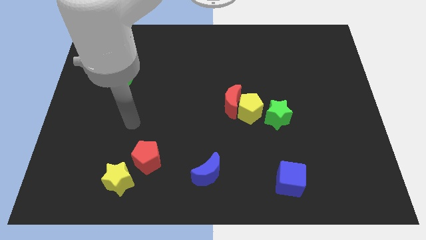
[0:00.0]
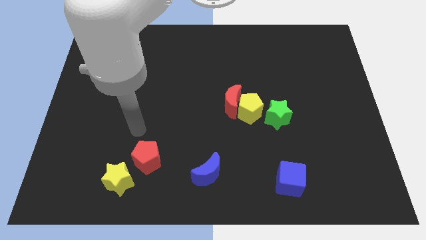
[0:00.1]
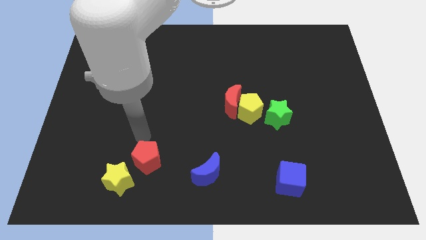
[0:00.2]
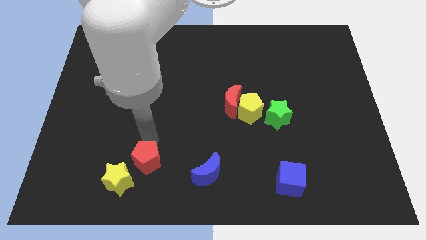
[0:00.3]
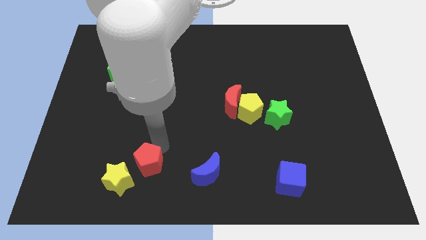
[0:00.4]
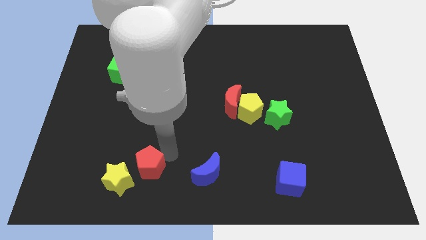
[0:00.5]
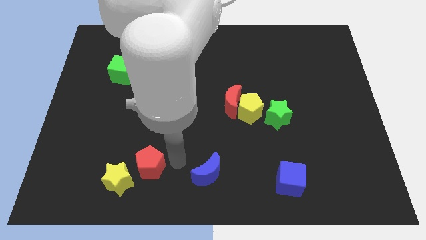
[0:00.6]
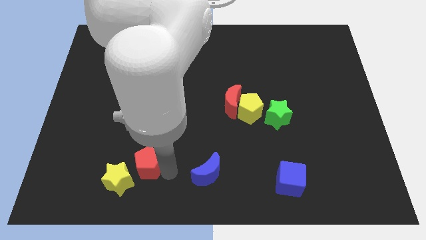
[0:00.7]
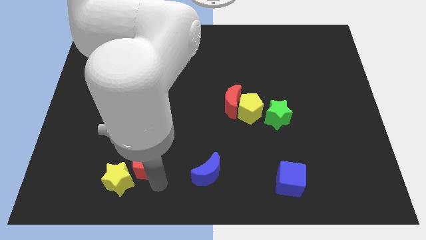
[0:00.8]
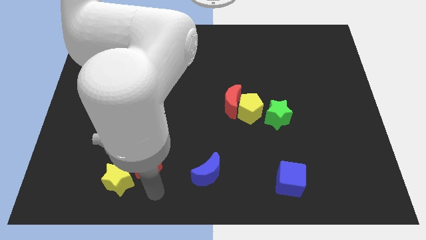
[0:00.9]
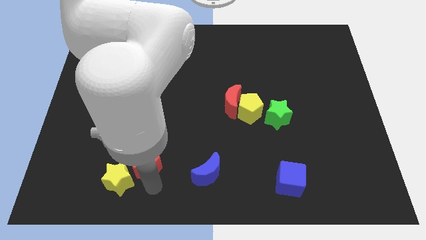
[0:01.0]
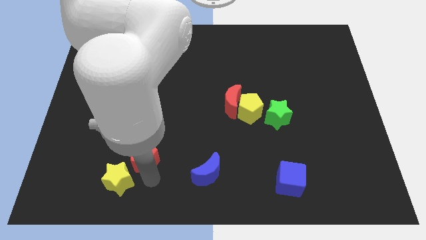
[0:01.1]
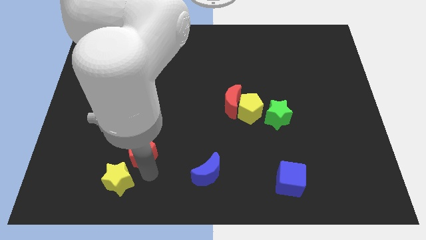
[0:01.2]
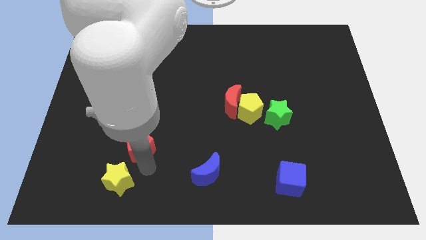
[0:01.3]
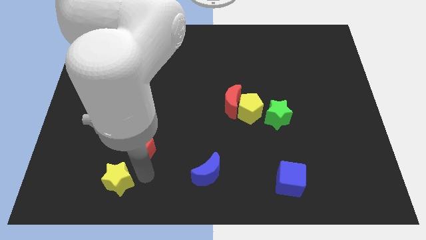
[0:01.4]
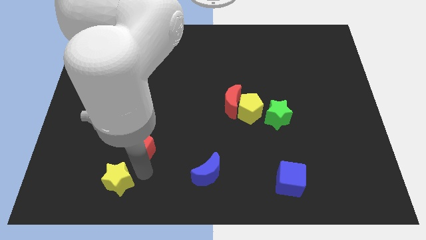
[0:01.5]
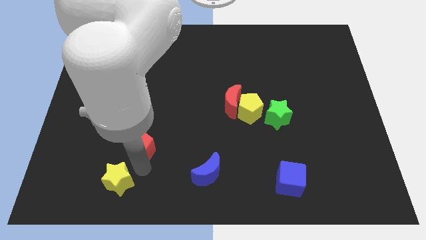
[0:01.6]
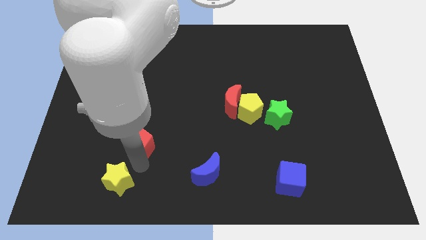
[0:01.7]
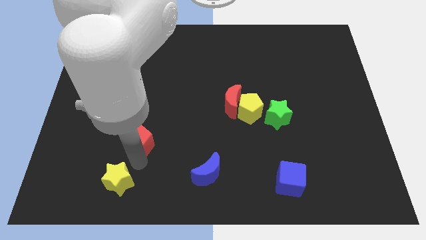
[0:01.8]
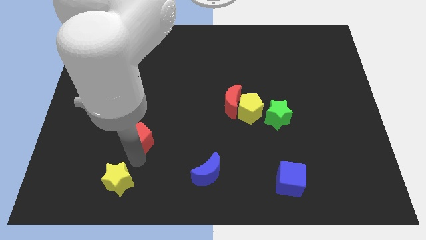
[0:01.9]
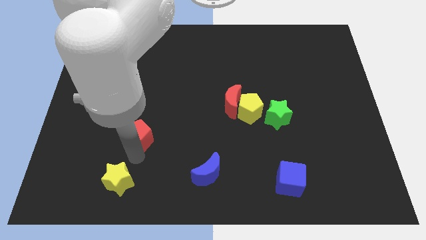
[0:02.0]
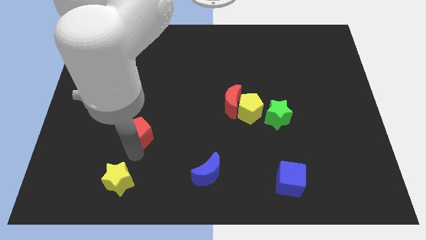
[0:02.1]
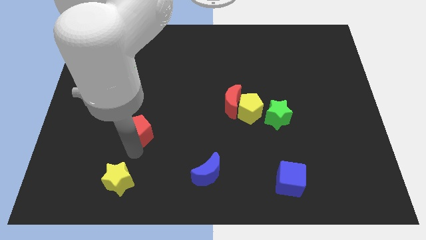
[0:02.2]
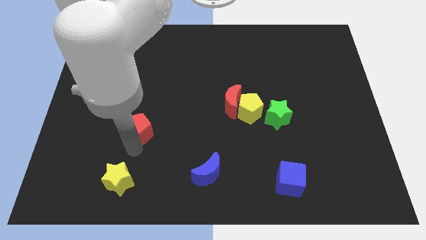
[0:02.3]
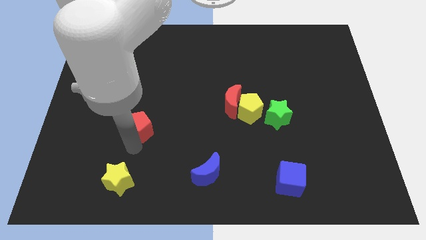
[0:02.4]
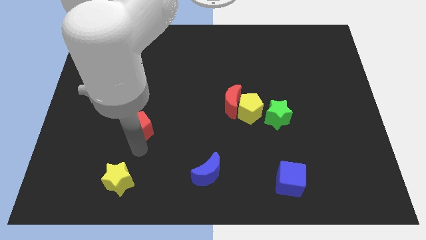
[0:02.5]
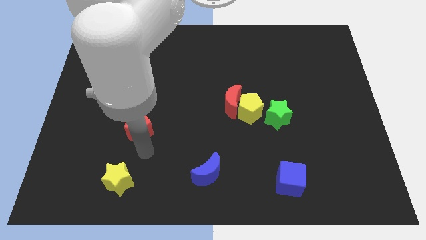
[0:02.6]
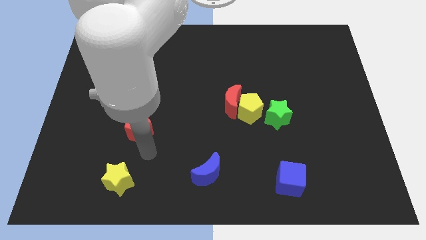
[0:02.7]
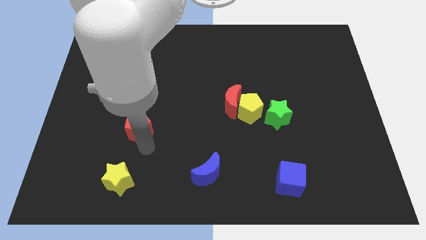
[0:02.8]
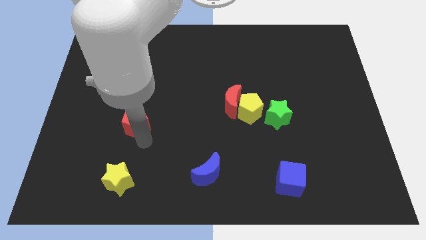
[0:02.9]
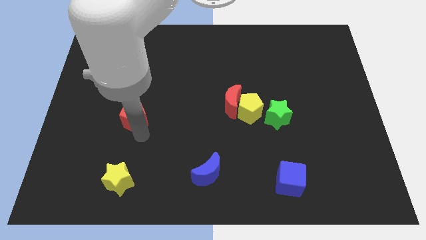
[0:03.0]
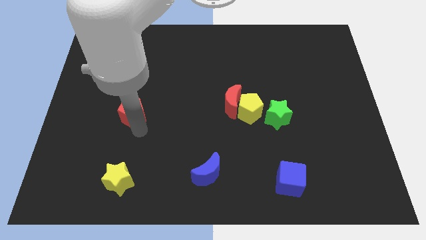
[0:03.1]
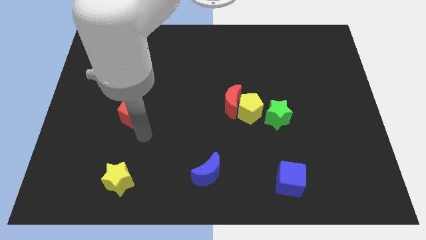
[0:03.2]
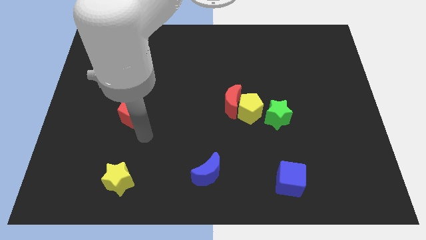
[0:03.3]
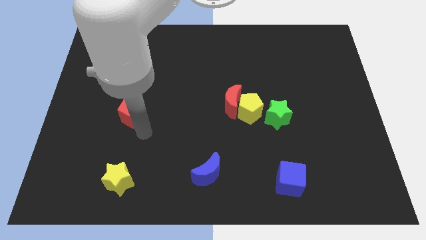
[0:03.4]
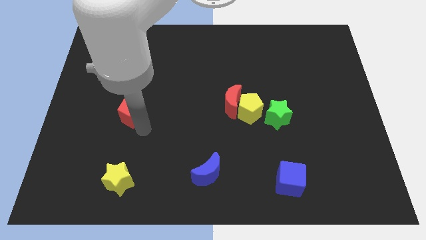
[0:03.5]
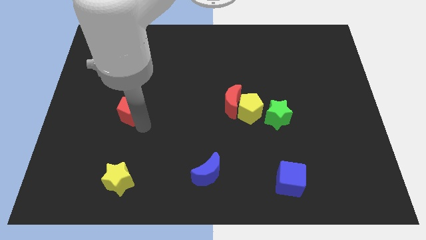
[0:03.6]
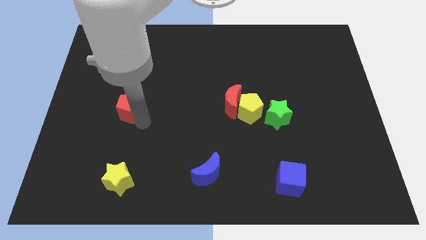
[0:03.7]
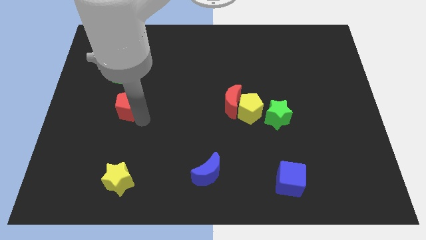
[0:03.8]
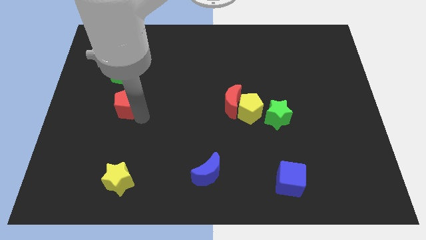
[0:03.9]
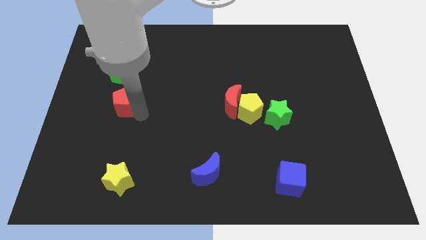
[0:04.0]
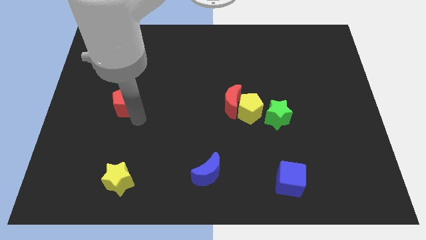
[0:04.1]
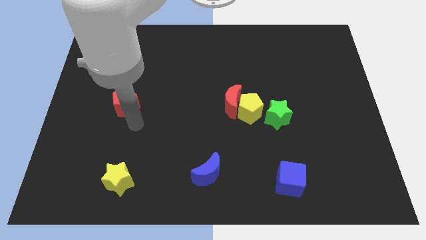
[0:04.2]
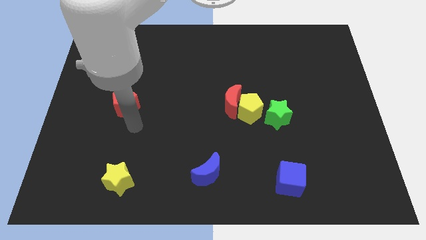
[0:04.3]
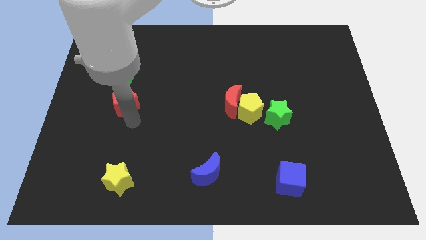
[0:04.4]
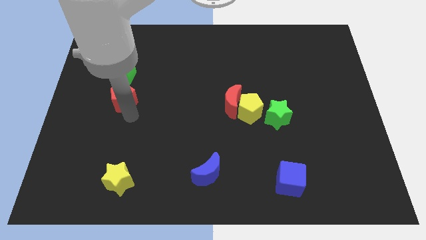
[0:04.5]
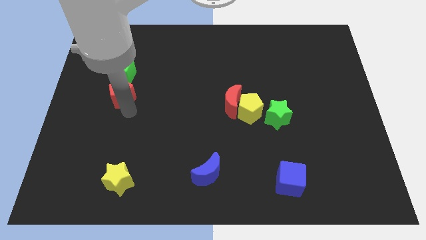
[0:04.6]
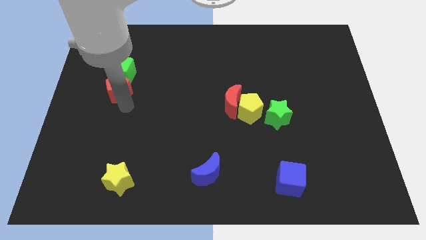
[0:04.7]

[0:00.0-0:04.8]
slide the red pentagon towards the green cube

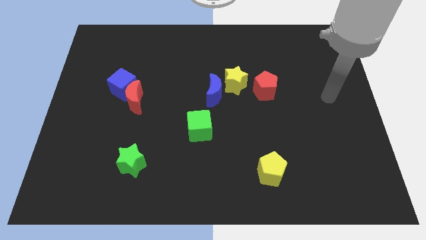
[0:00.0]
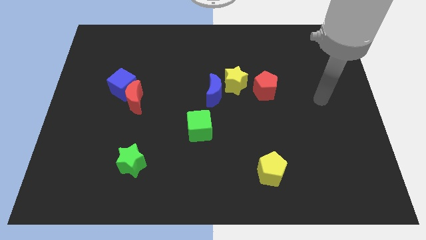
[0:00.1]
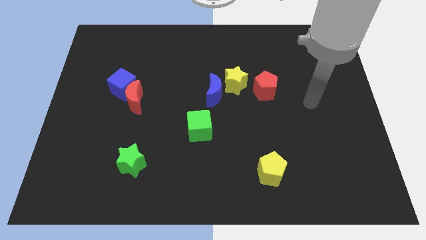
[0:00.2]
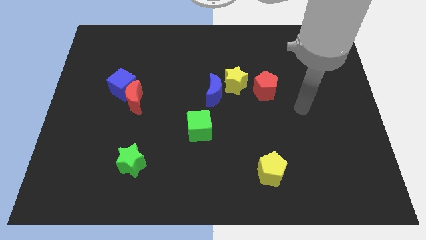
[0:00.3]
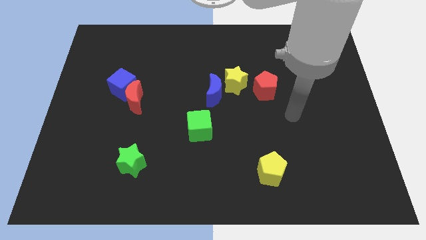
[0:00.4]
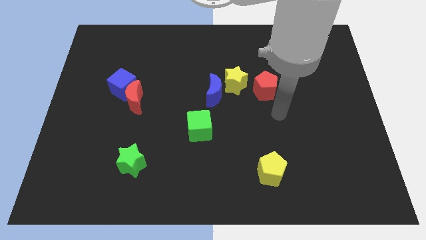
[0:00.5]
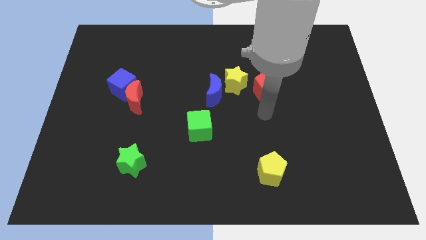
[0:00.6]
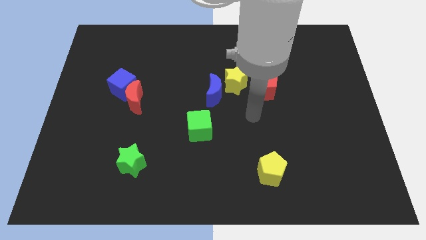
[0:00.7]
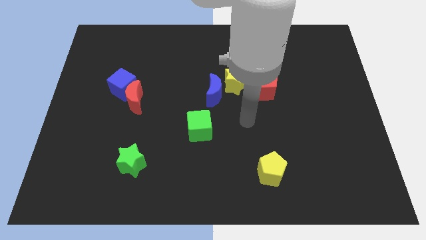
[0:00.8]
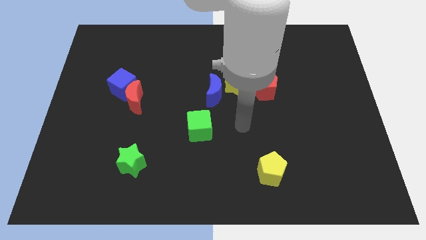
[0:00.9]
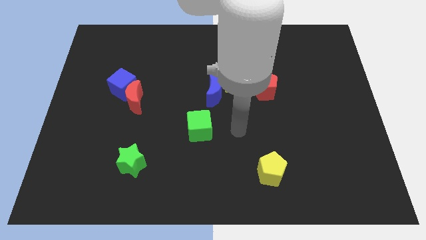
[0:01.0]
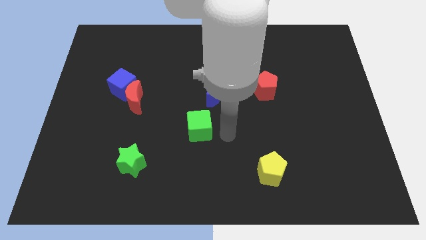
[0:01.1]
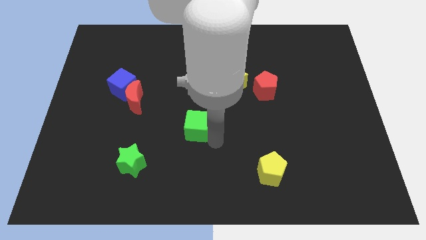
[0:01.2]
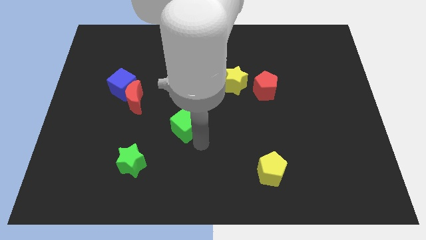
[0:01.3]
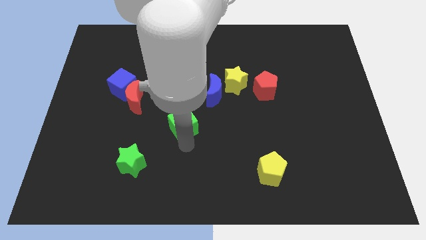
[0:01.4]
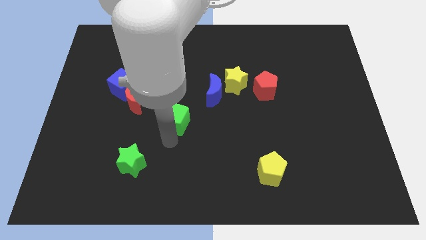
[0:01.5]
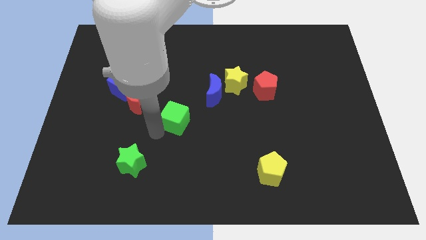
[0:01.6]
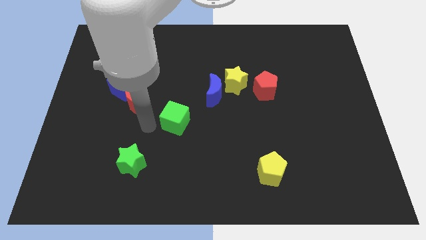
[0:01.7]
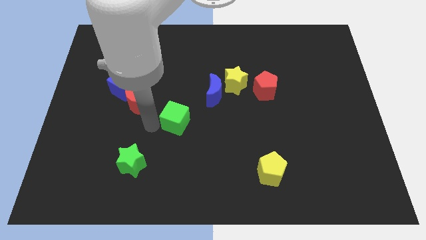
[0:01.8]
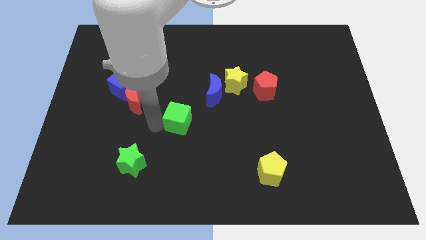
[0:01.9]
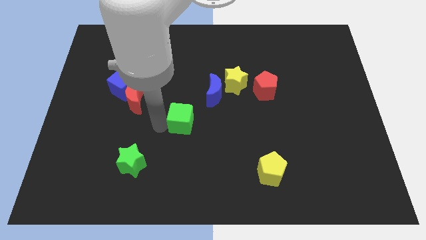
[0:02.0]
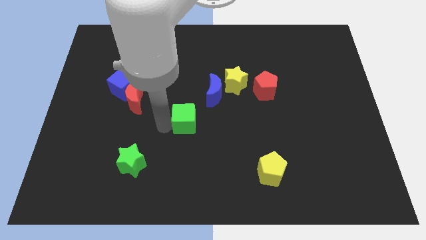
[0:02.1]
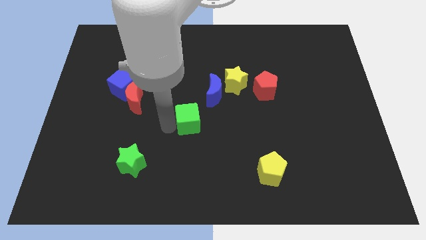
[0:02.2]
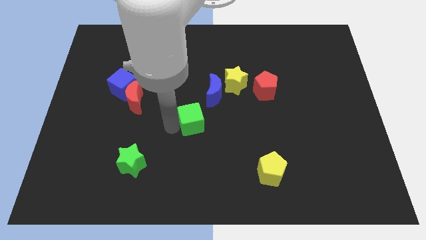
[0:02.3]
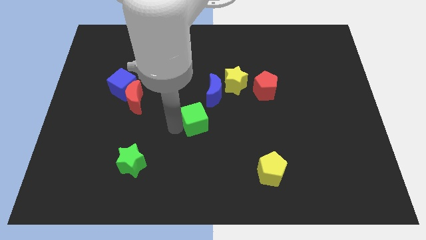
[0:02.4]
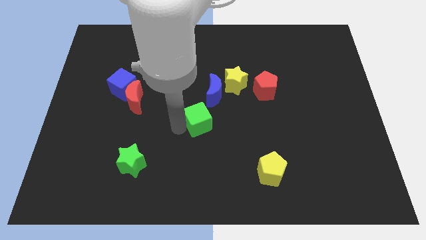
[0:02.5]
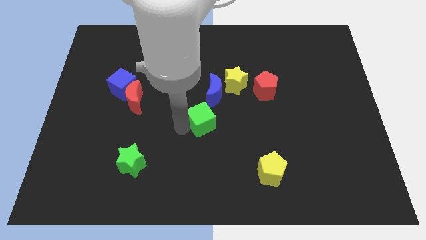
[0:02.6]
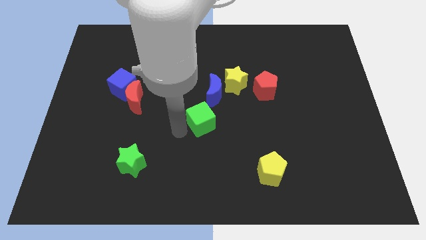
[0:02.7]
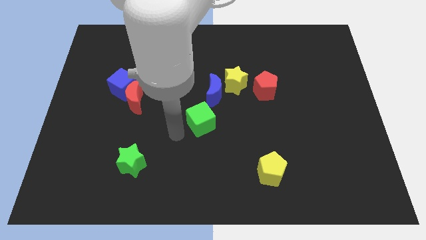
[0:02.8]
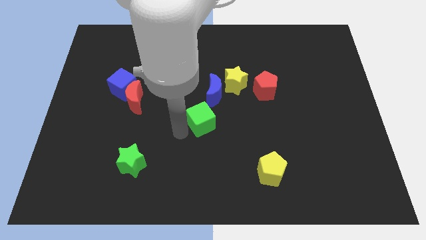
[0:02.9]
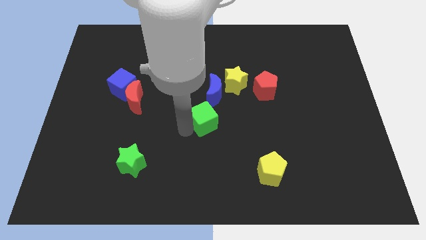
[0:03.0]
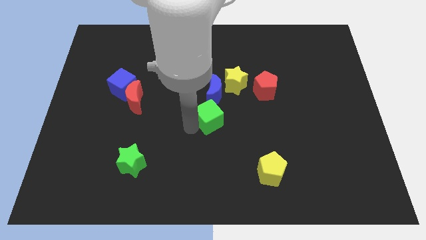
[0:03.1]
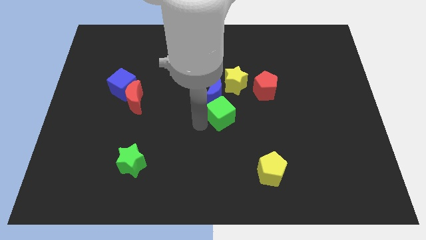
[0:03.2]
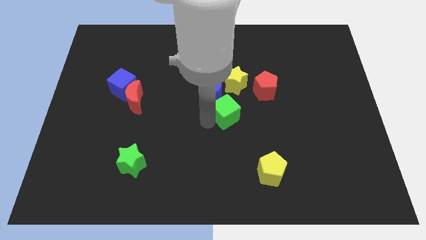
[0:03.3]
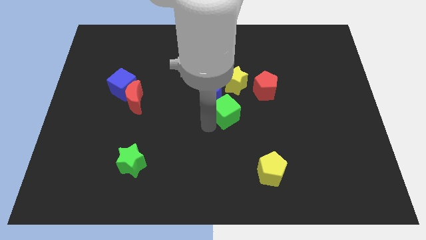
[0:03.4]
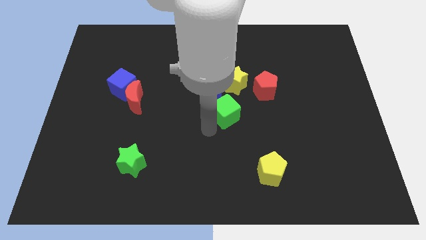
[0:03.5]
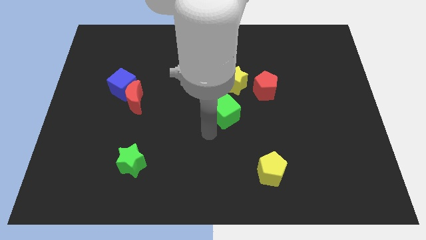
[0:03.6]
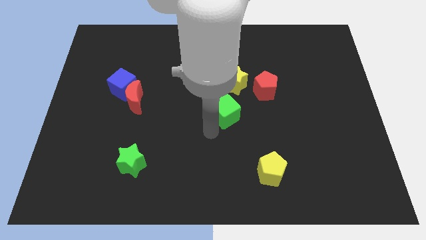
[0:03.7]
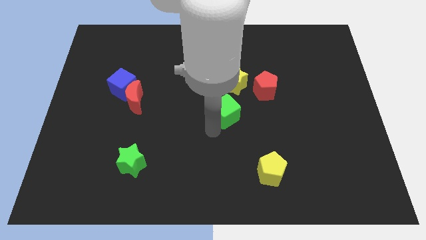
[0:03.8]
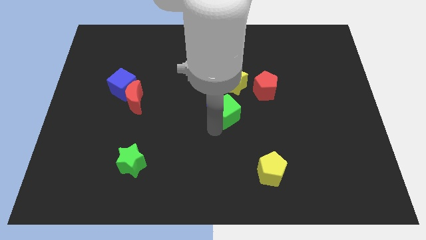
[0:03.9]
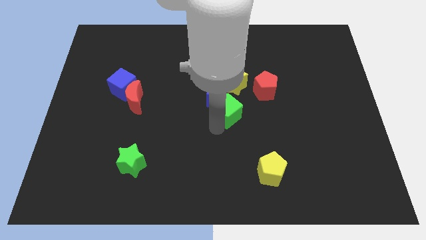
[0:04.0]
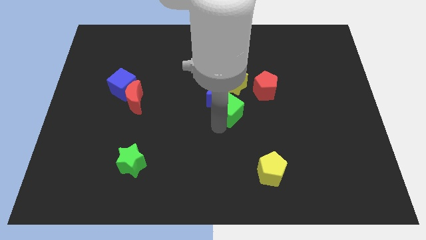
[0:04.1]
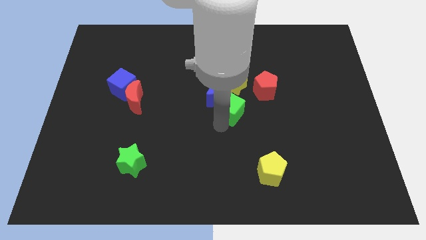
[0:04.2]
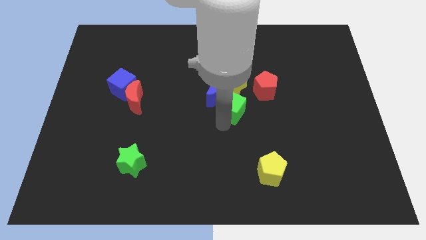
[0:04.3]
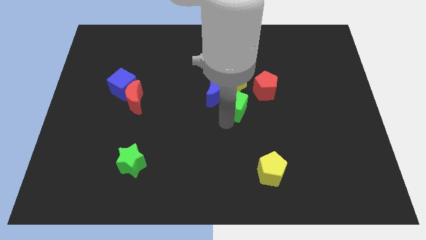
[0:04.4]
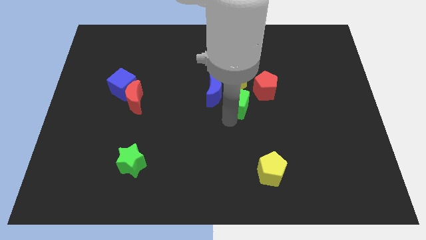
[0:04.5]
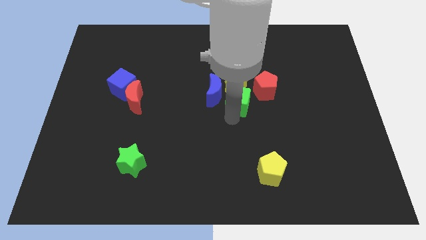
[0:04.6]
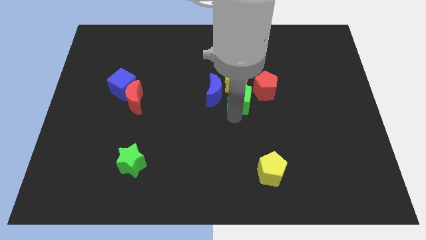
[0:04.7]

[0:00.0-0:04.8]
put the green cube close to the yellow star
